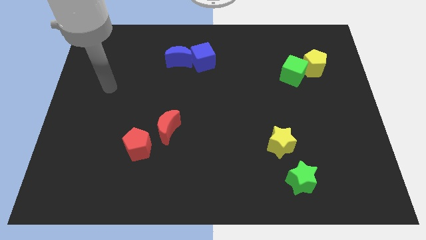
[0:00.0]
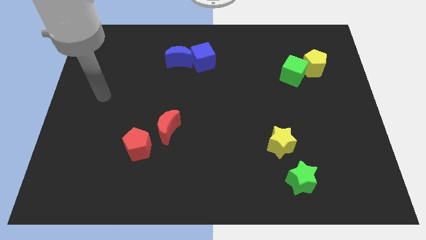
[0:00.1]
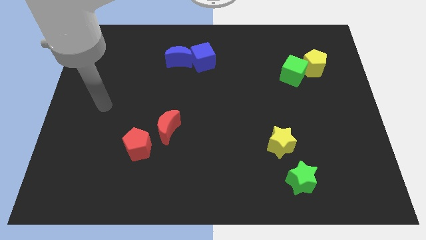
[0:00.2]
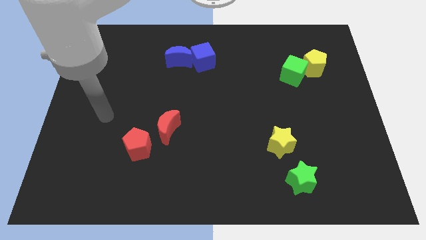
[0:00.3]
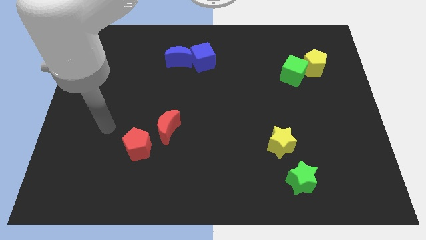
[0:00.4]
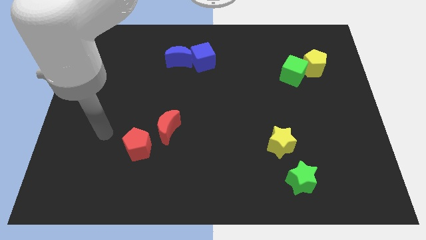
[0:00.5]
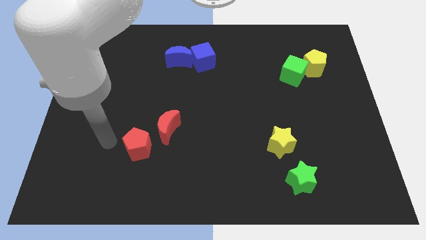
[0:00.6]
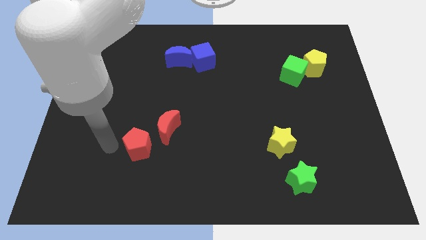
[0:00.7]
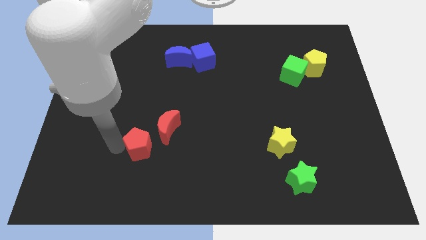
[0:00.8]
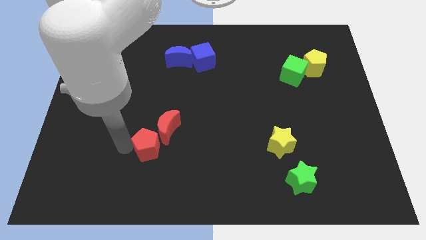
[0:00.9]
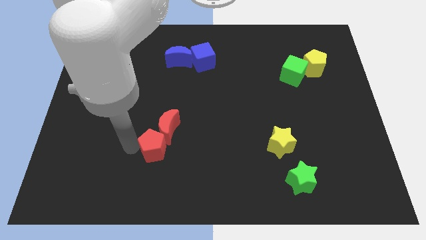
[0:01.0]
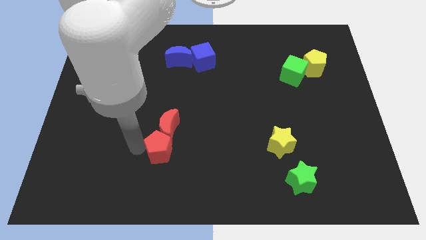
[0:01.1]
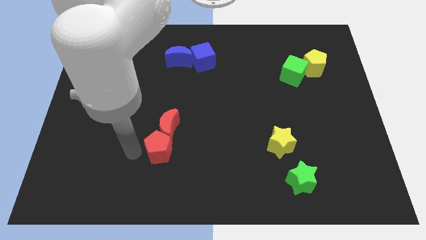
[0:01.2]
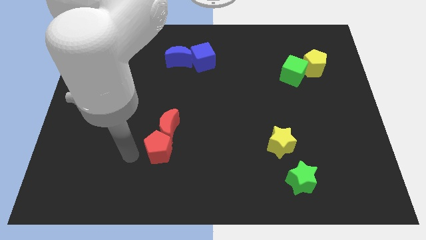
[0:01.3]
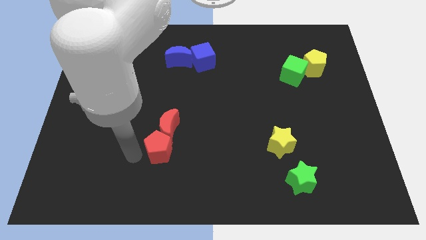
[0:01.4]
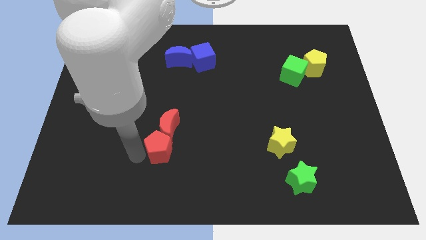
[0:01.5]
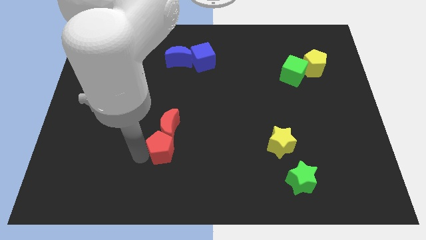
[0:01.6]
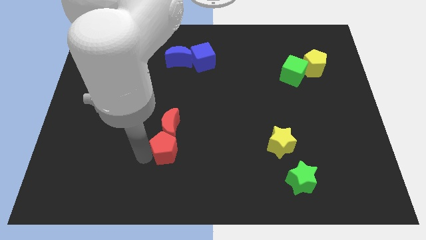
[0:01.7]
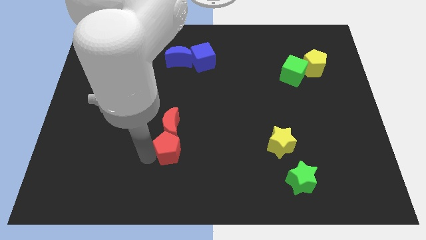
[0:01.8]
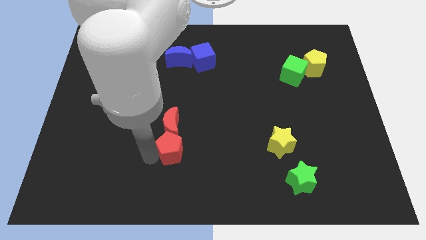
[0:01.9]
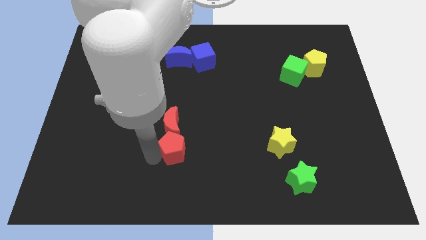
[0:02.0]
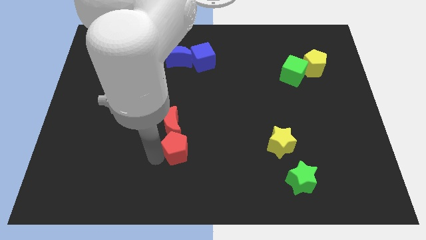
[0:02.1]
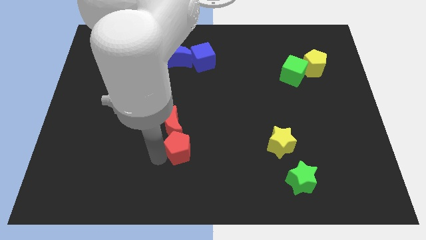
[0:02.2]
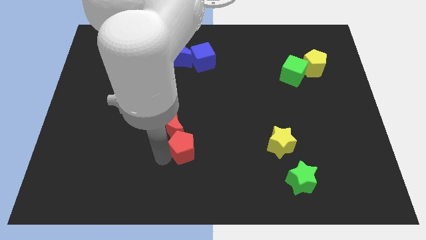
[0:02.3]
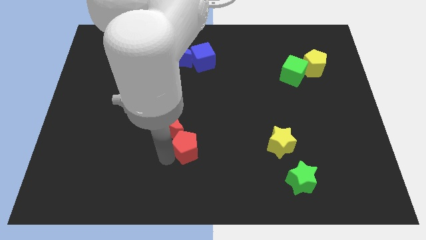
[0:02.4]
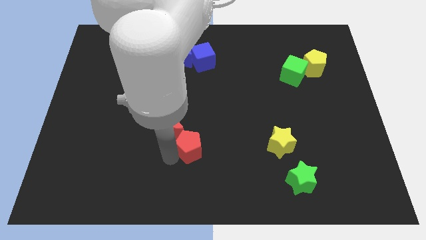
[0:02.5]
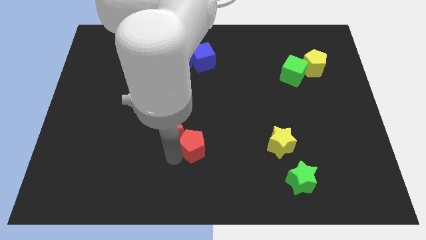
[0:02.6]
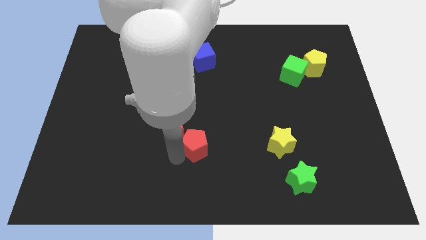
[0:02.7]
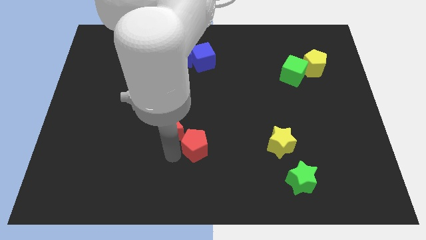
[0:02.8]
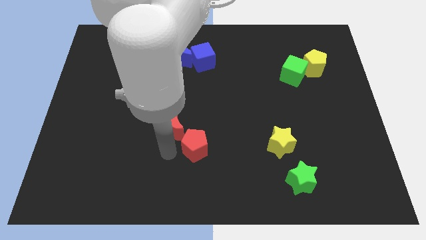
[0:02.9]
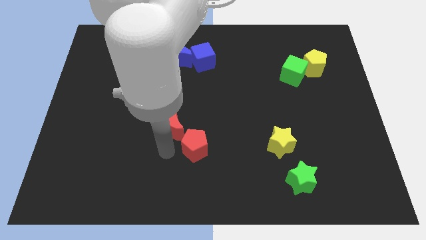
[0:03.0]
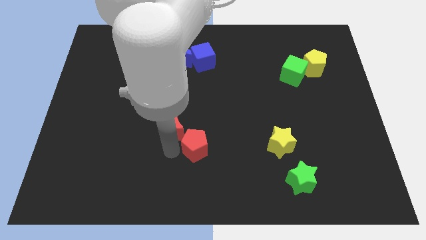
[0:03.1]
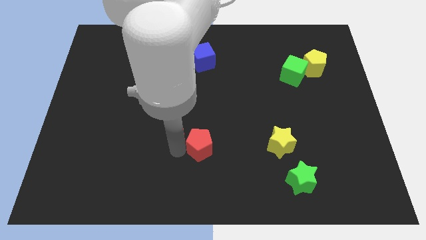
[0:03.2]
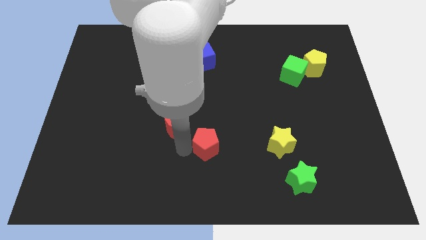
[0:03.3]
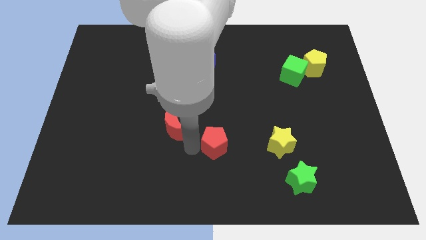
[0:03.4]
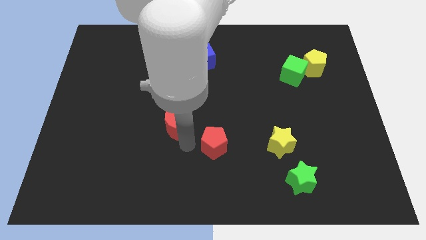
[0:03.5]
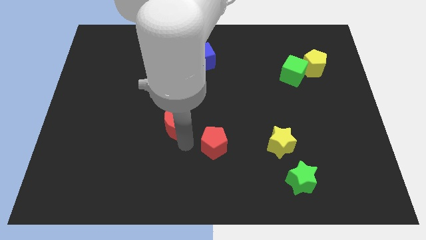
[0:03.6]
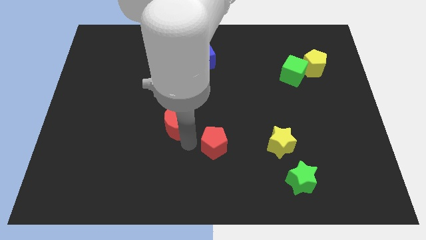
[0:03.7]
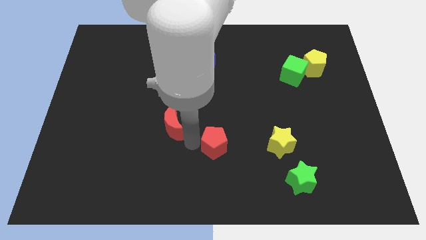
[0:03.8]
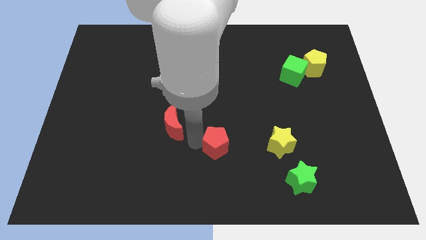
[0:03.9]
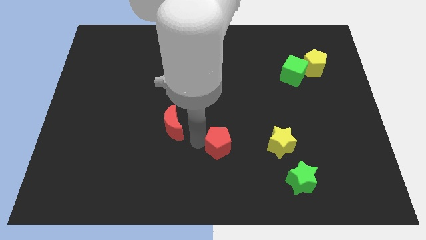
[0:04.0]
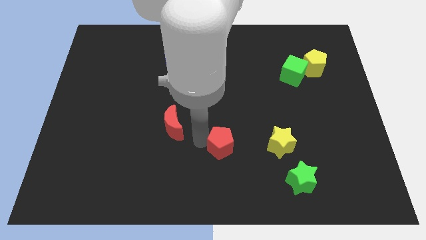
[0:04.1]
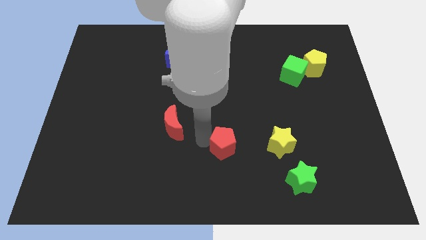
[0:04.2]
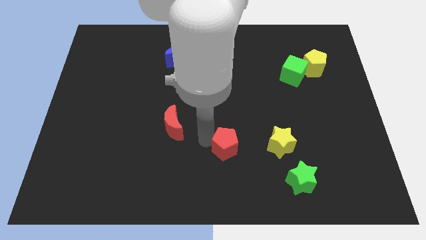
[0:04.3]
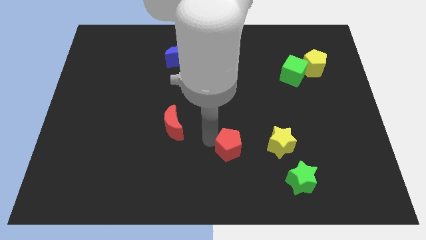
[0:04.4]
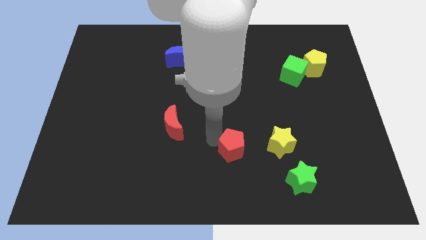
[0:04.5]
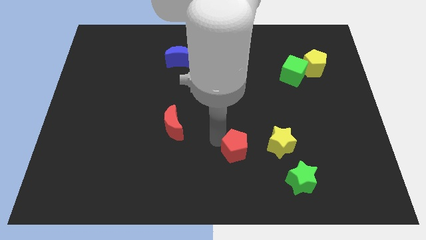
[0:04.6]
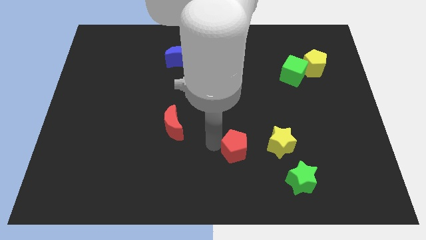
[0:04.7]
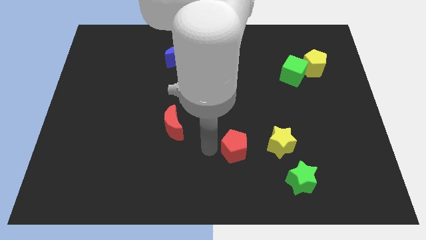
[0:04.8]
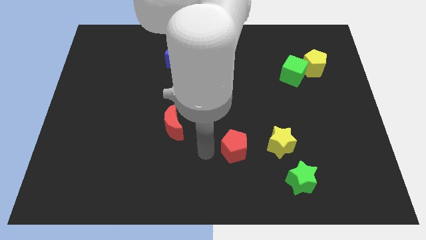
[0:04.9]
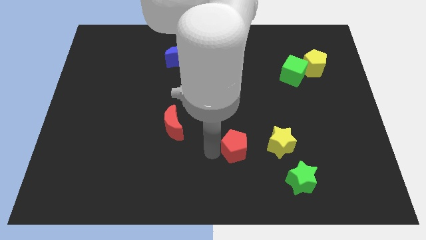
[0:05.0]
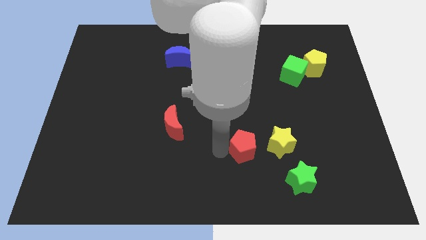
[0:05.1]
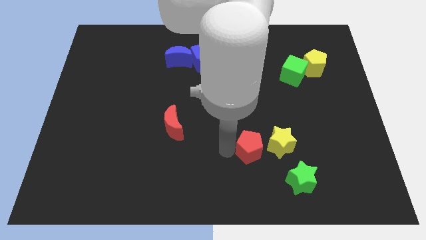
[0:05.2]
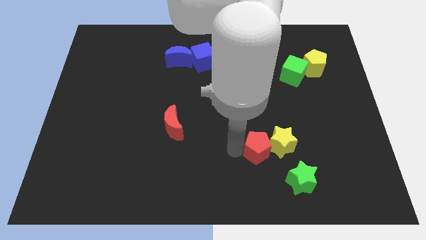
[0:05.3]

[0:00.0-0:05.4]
put the red pentagon next to the yellow star

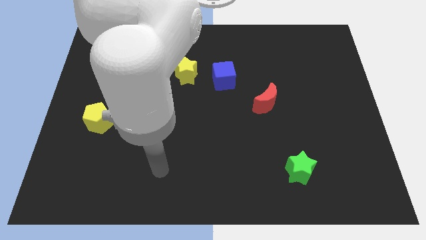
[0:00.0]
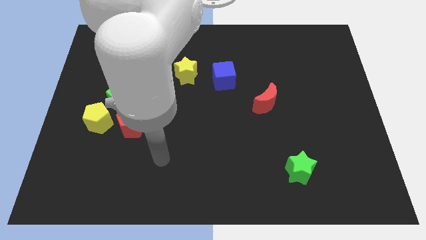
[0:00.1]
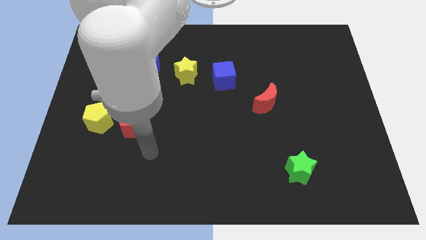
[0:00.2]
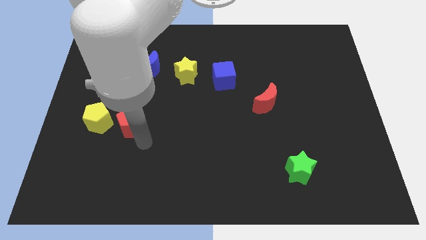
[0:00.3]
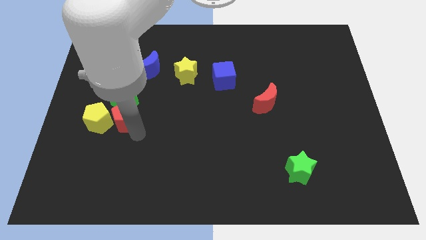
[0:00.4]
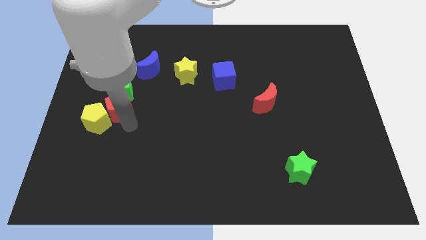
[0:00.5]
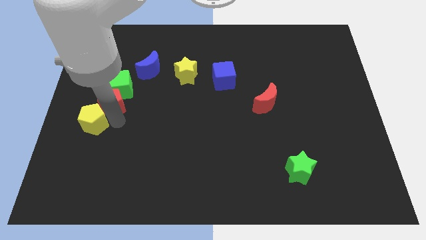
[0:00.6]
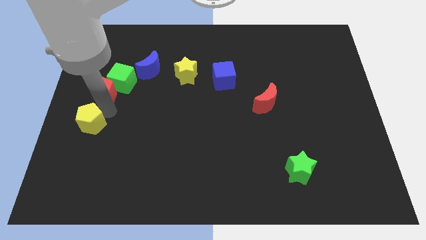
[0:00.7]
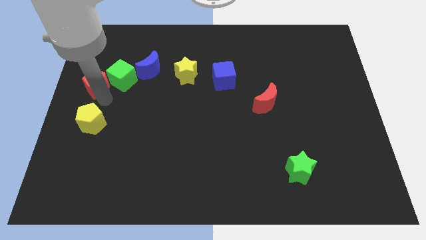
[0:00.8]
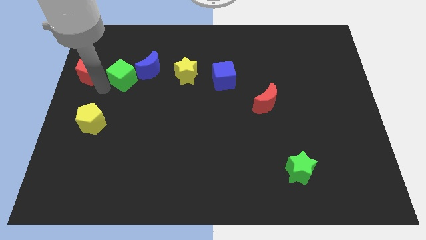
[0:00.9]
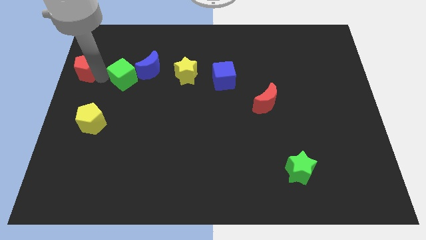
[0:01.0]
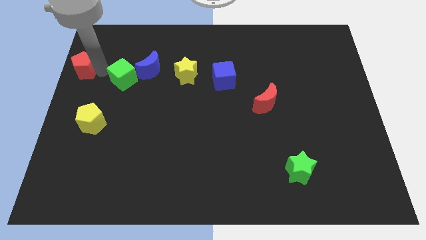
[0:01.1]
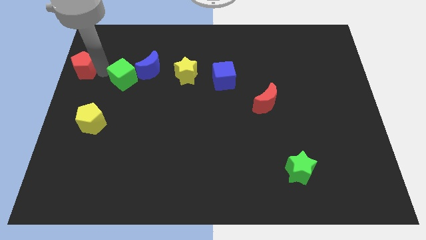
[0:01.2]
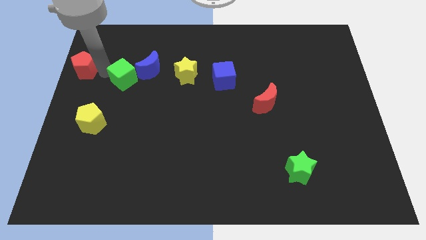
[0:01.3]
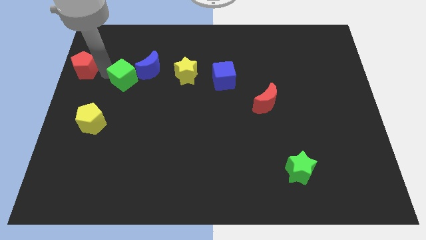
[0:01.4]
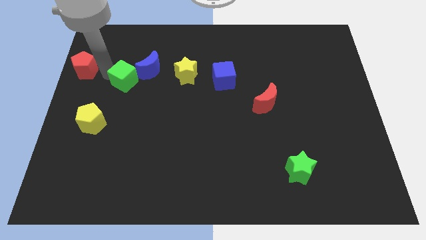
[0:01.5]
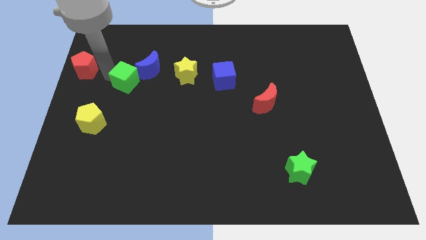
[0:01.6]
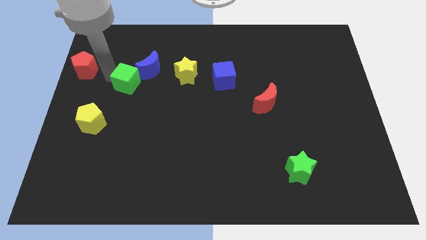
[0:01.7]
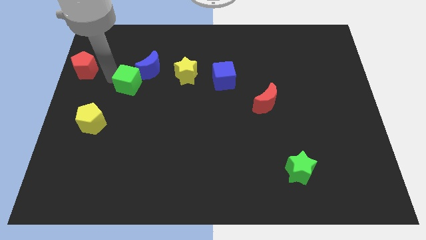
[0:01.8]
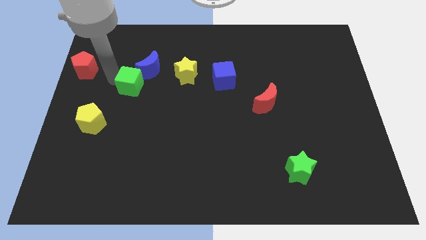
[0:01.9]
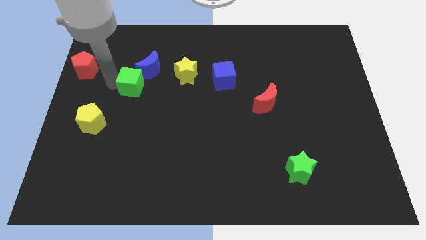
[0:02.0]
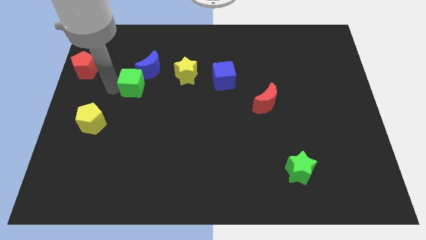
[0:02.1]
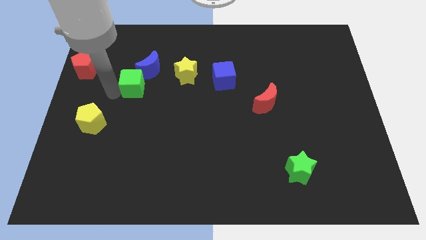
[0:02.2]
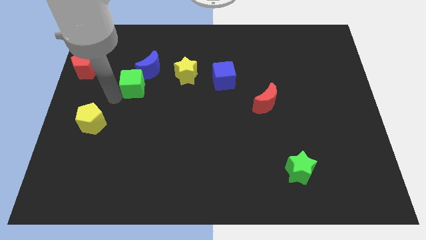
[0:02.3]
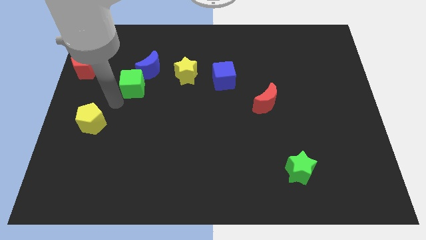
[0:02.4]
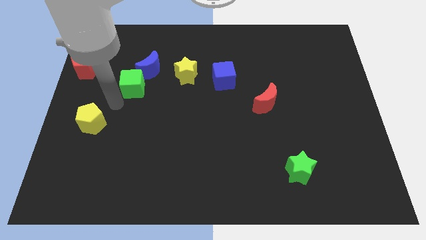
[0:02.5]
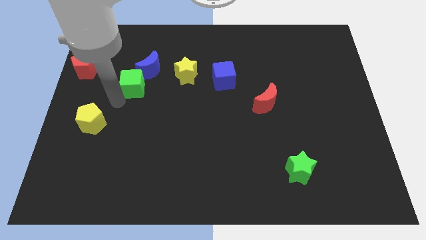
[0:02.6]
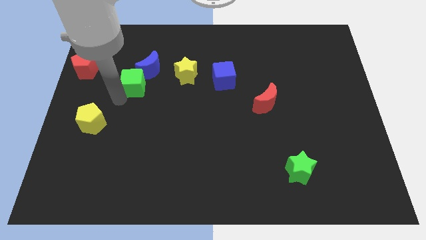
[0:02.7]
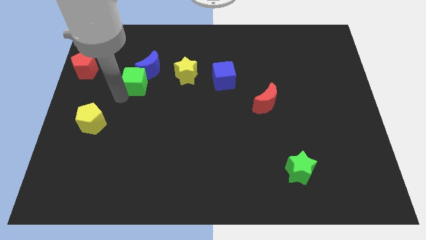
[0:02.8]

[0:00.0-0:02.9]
move the green cube close to the blue moon
